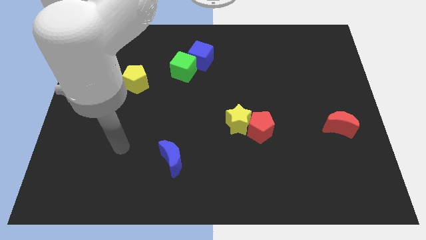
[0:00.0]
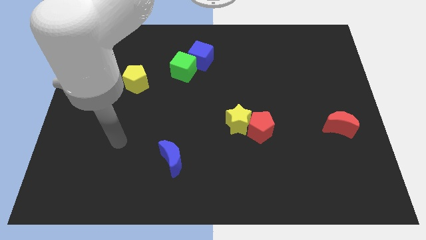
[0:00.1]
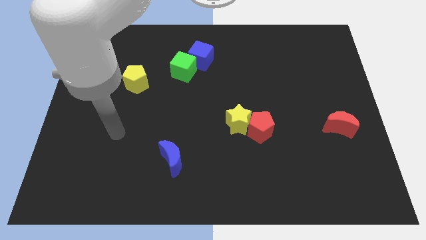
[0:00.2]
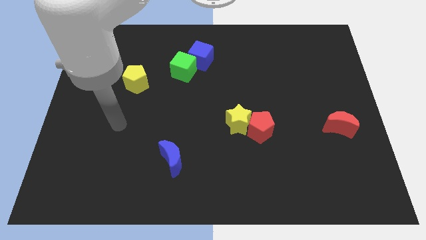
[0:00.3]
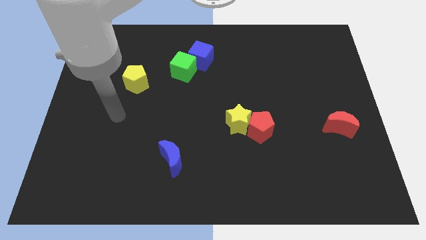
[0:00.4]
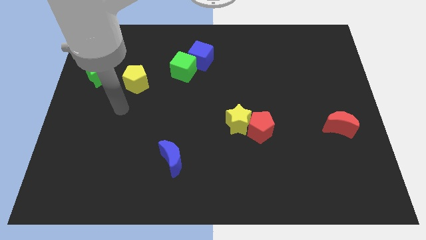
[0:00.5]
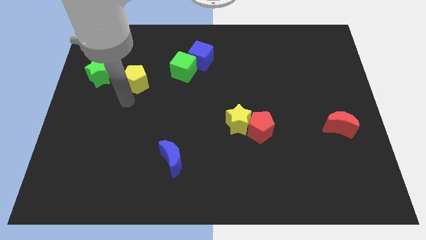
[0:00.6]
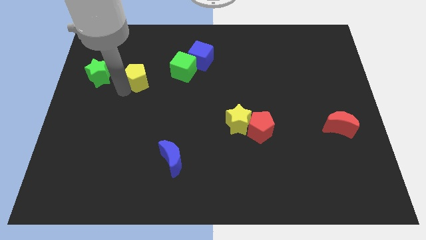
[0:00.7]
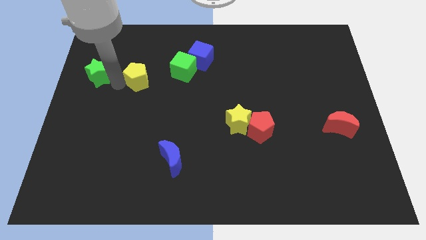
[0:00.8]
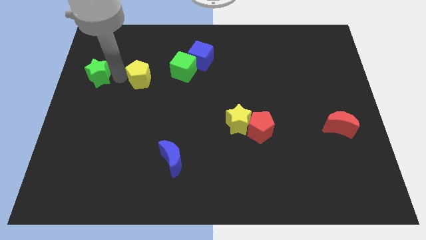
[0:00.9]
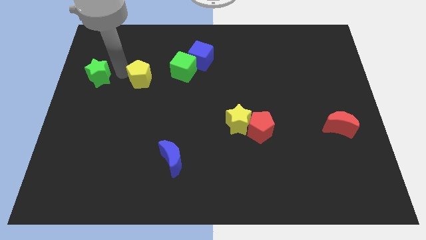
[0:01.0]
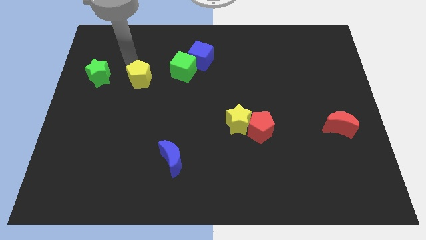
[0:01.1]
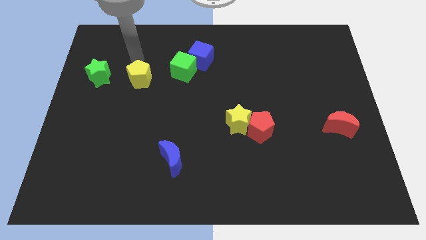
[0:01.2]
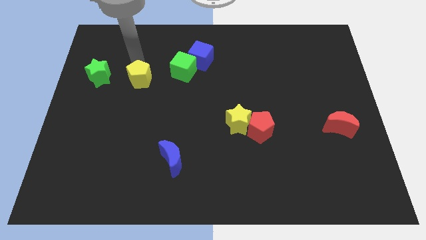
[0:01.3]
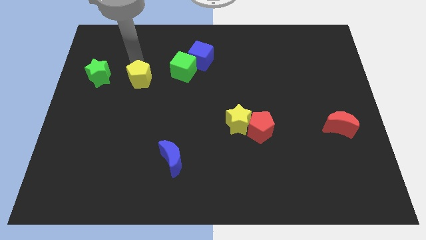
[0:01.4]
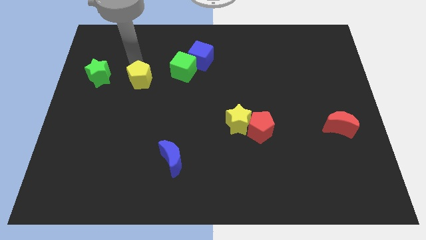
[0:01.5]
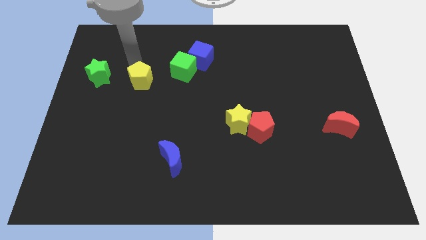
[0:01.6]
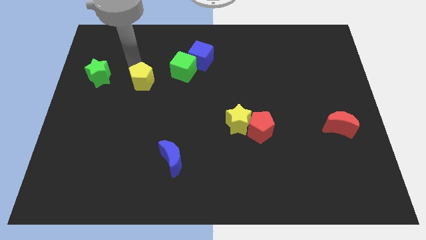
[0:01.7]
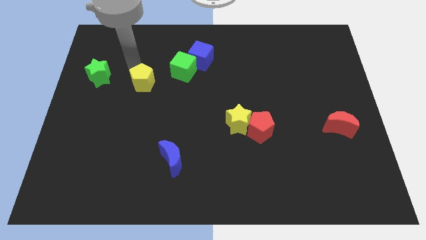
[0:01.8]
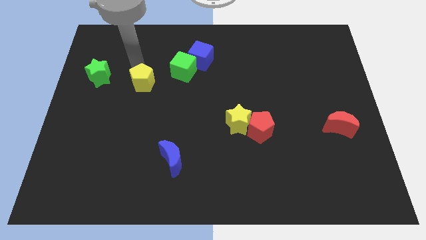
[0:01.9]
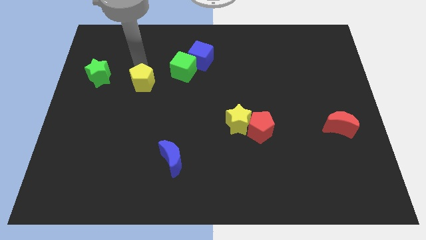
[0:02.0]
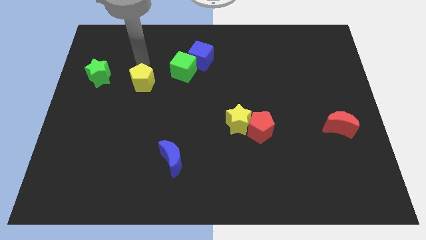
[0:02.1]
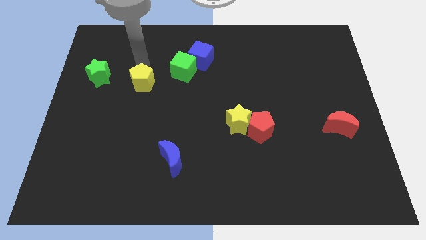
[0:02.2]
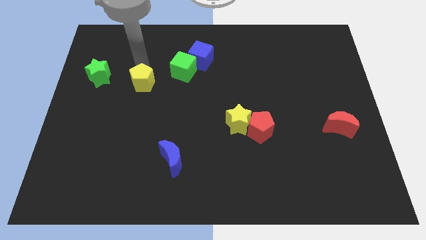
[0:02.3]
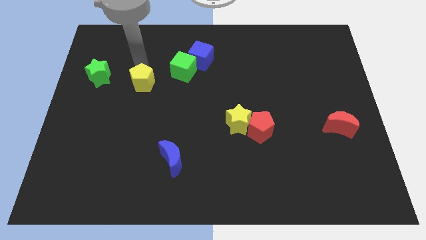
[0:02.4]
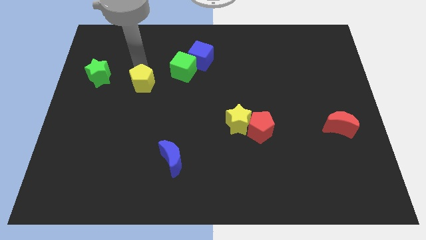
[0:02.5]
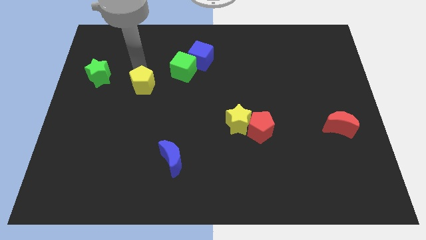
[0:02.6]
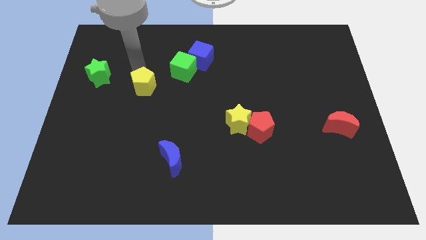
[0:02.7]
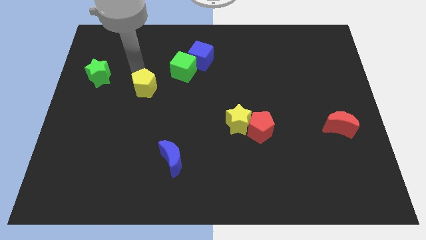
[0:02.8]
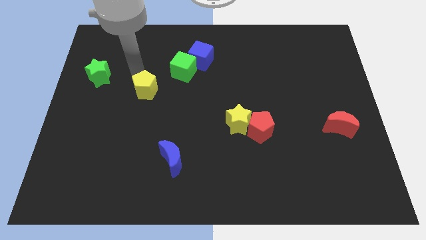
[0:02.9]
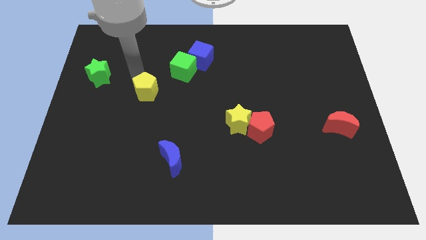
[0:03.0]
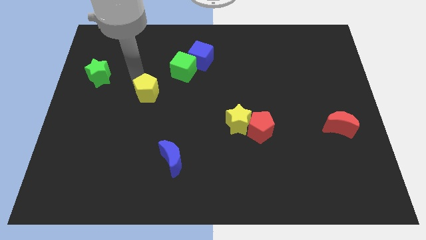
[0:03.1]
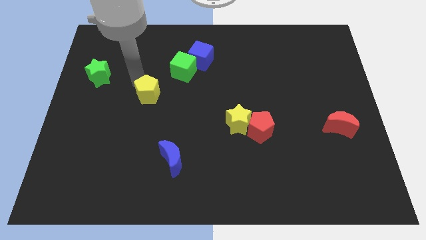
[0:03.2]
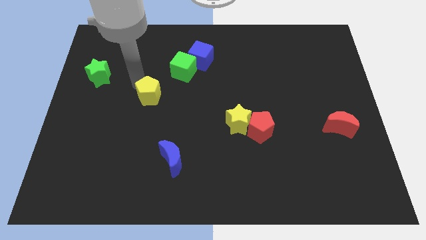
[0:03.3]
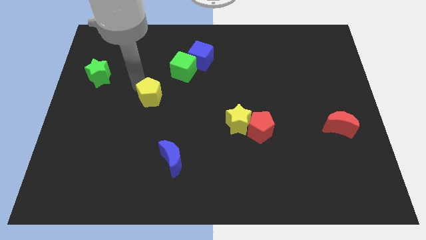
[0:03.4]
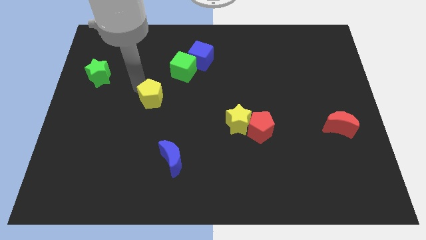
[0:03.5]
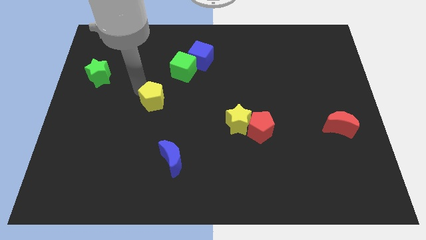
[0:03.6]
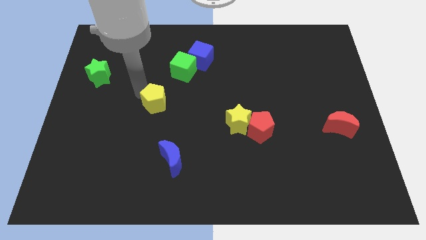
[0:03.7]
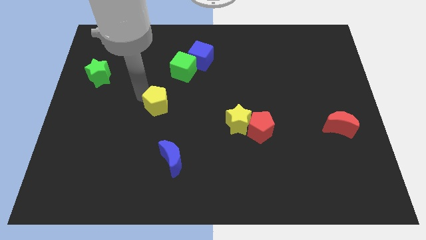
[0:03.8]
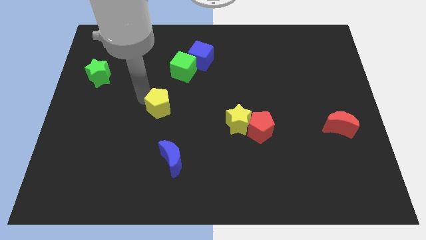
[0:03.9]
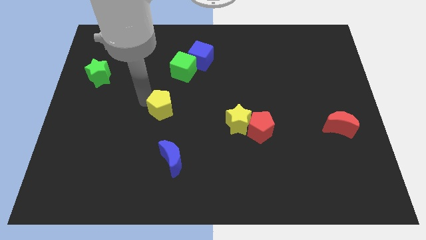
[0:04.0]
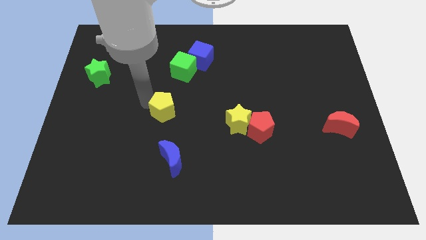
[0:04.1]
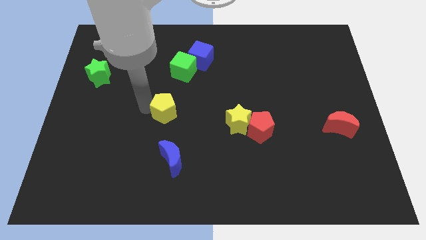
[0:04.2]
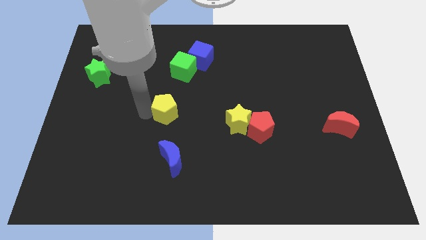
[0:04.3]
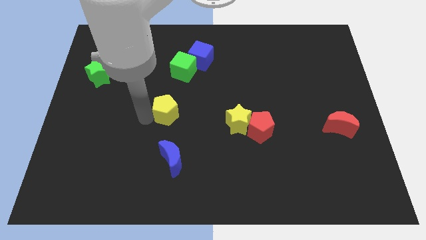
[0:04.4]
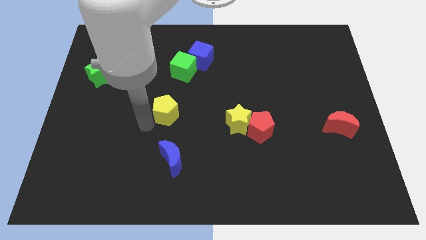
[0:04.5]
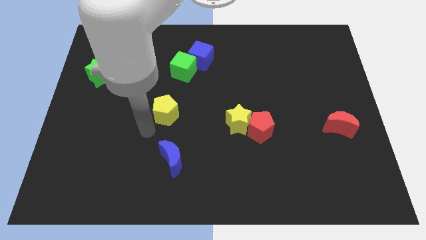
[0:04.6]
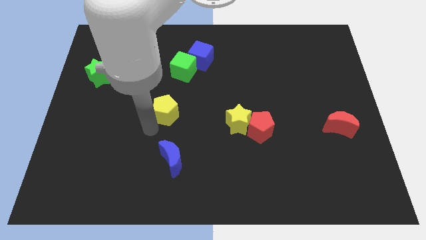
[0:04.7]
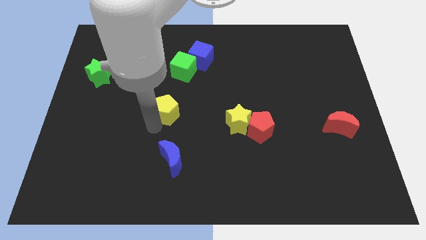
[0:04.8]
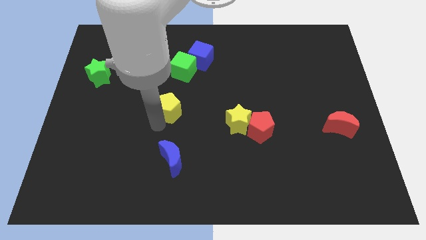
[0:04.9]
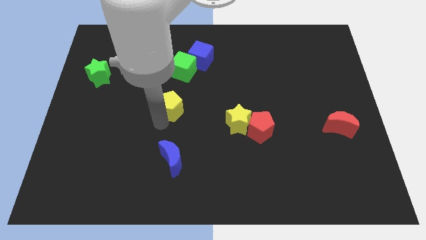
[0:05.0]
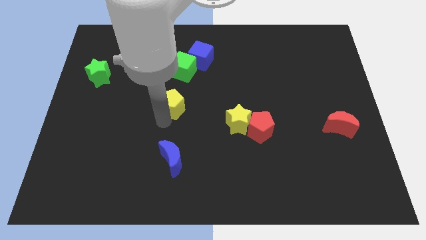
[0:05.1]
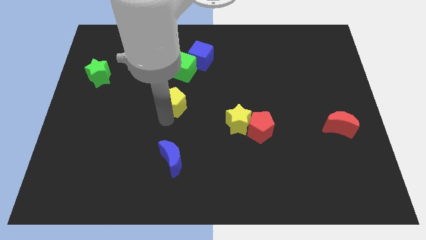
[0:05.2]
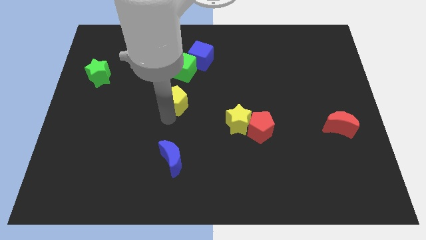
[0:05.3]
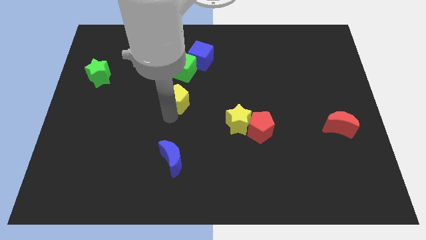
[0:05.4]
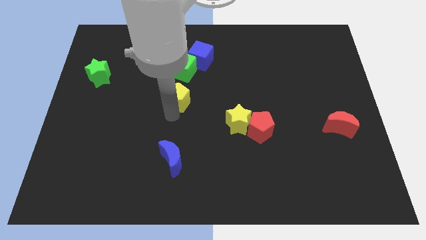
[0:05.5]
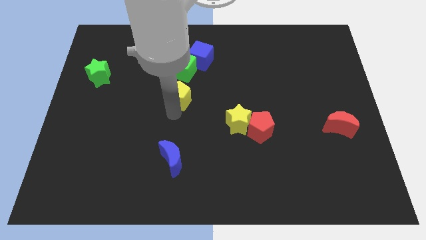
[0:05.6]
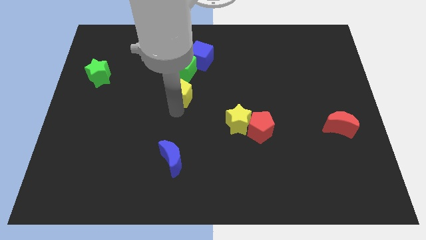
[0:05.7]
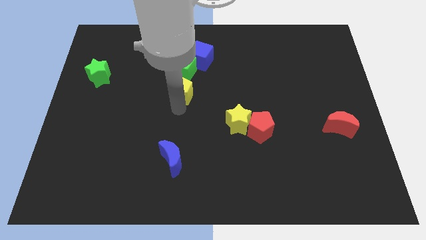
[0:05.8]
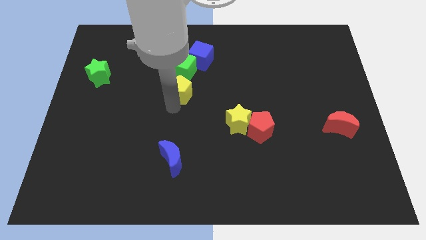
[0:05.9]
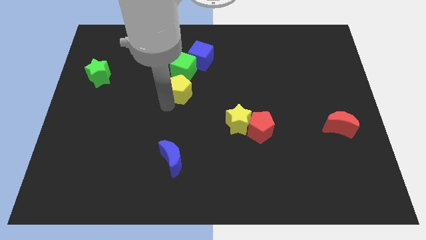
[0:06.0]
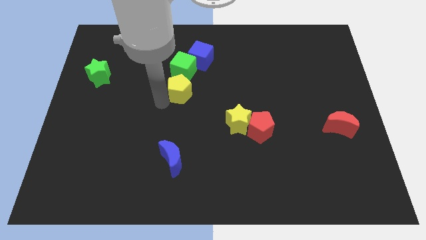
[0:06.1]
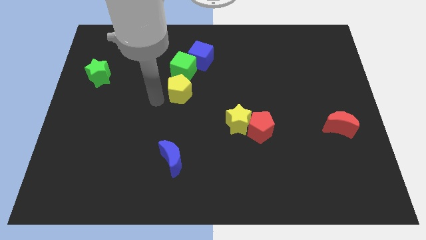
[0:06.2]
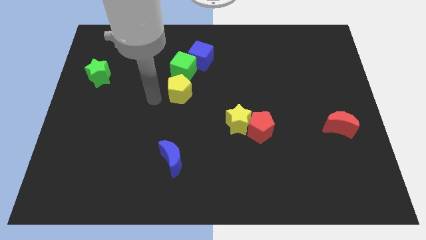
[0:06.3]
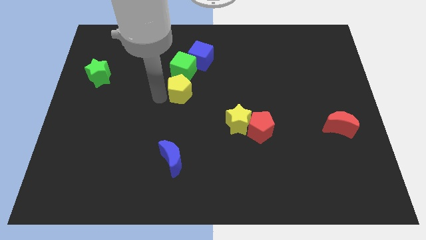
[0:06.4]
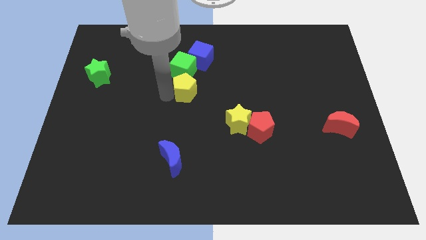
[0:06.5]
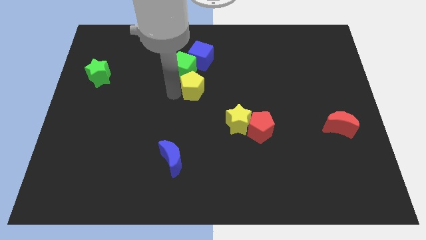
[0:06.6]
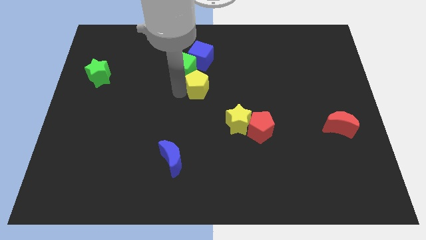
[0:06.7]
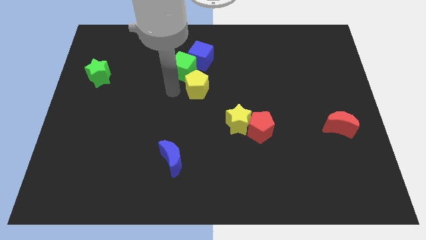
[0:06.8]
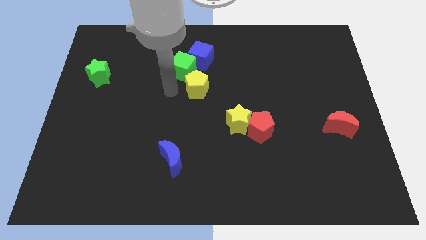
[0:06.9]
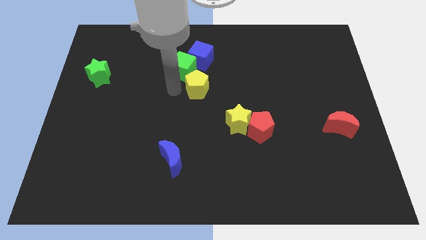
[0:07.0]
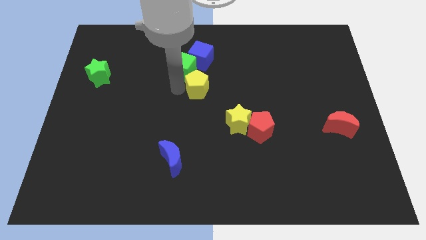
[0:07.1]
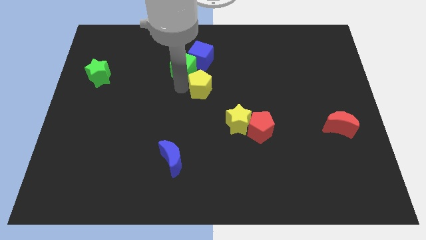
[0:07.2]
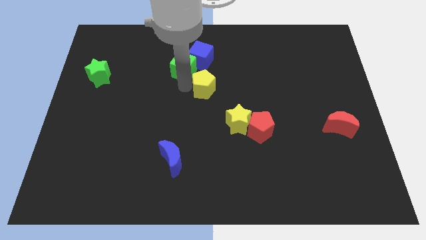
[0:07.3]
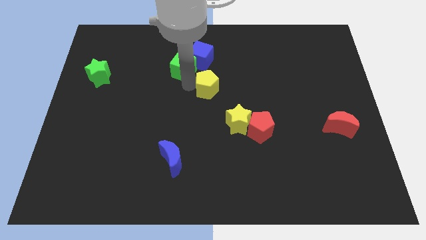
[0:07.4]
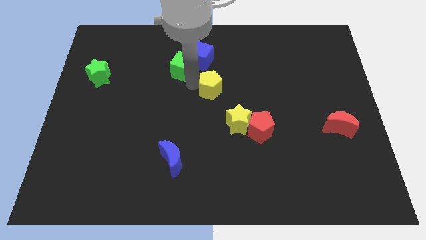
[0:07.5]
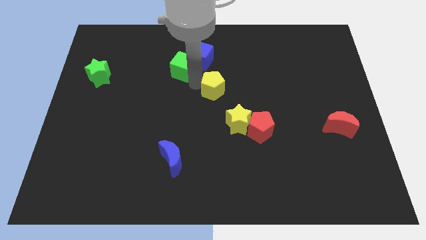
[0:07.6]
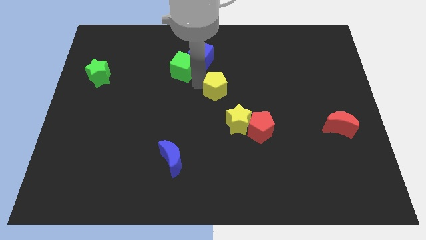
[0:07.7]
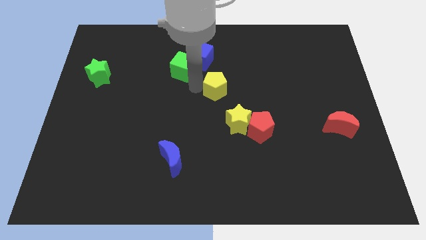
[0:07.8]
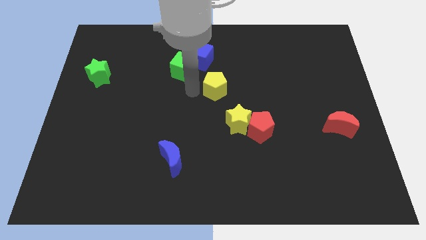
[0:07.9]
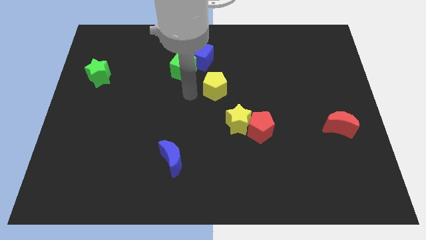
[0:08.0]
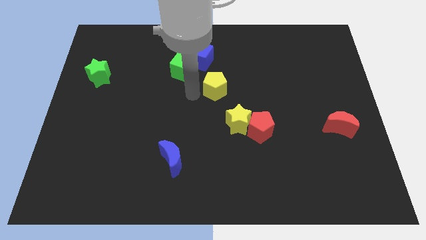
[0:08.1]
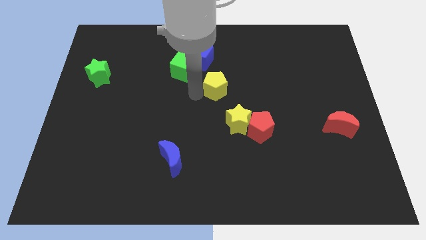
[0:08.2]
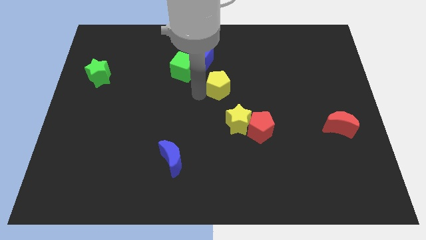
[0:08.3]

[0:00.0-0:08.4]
slide the yellow pentagon right
